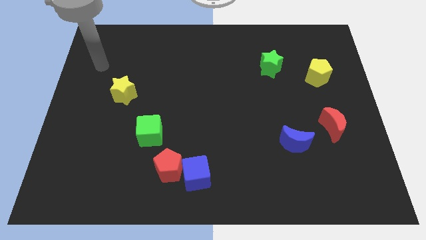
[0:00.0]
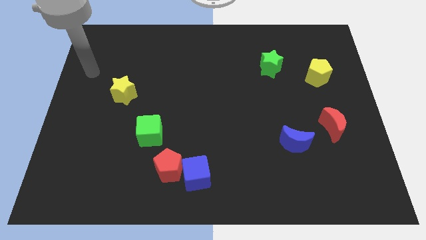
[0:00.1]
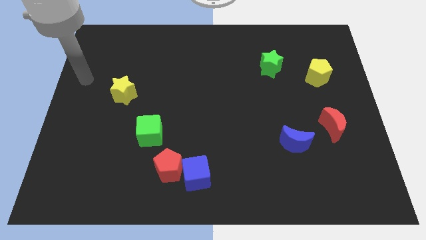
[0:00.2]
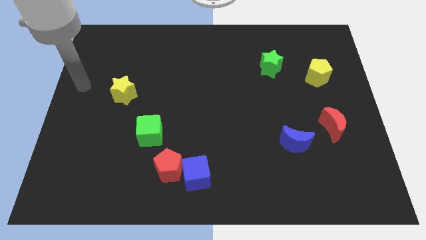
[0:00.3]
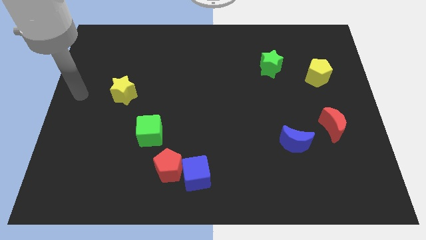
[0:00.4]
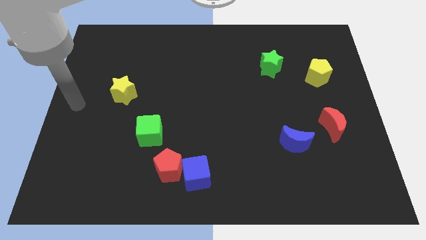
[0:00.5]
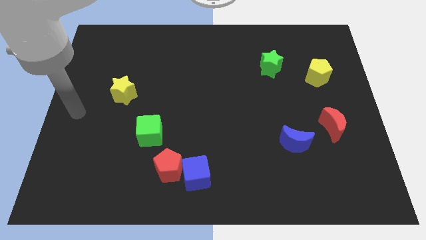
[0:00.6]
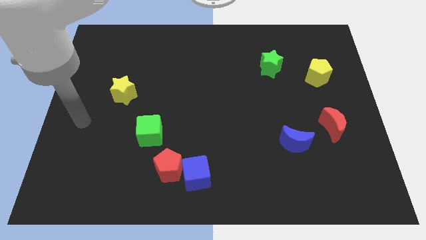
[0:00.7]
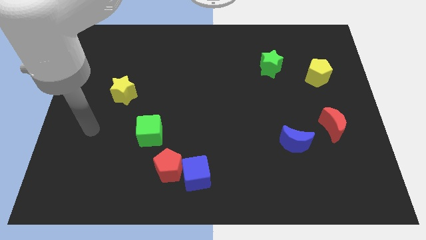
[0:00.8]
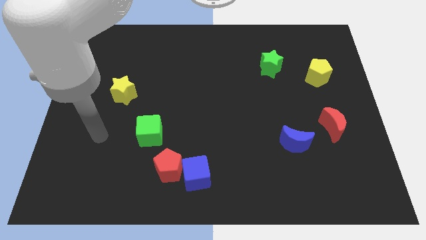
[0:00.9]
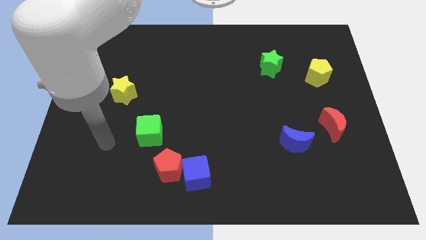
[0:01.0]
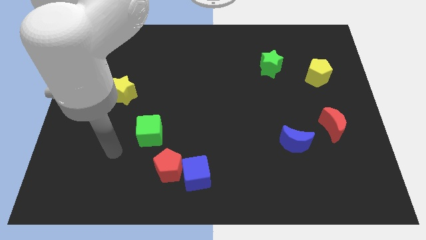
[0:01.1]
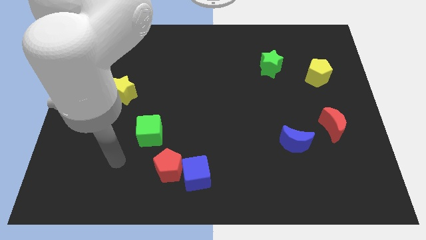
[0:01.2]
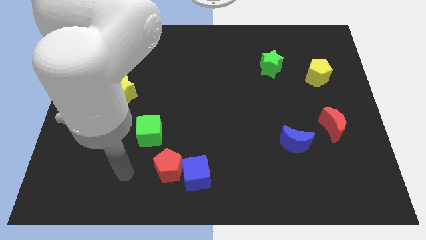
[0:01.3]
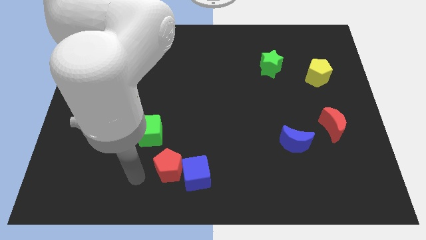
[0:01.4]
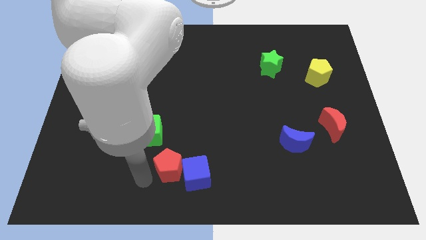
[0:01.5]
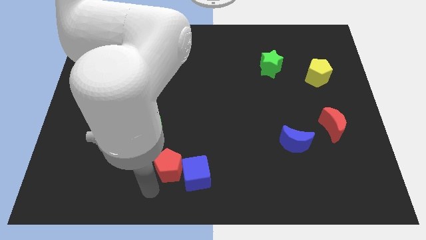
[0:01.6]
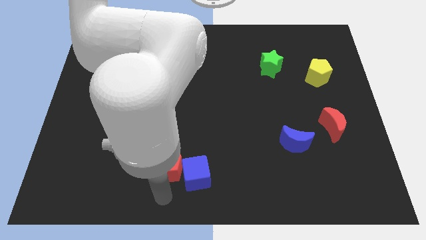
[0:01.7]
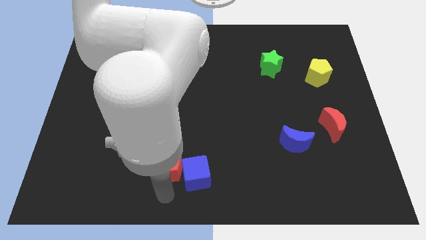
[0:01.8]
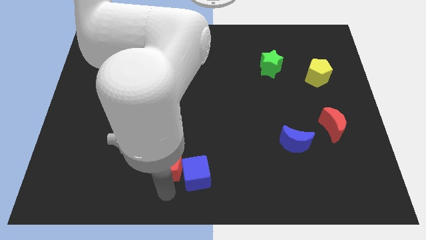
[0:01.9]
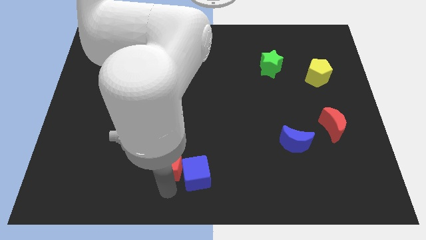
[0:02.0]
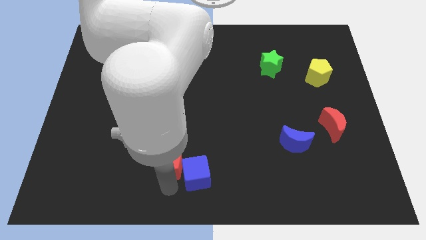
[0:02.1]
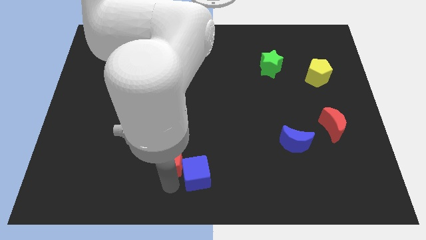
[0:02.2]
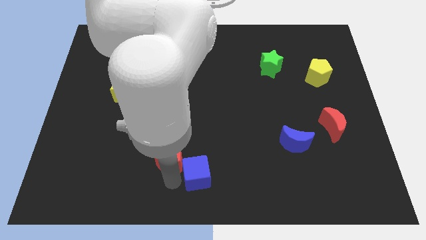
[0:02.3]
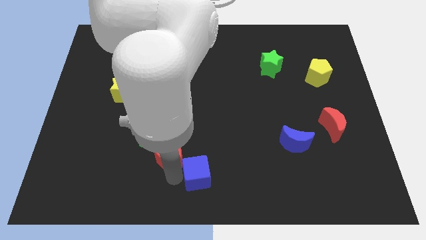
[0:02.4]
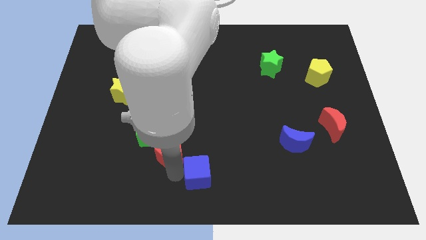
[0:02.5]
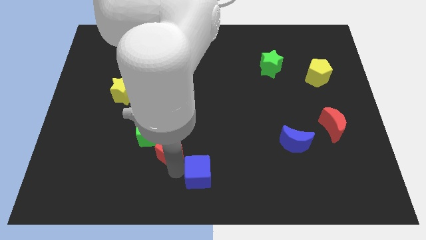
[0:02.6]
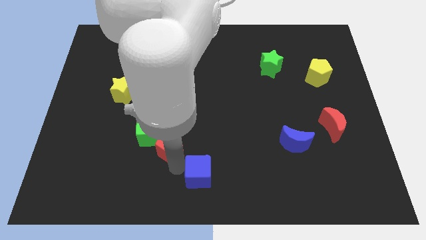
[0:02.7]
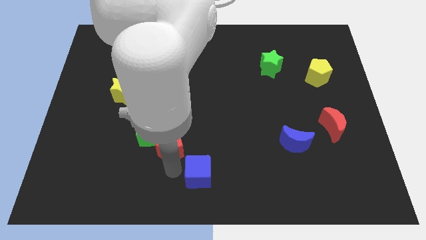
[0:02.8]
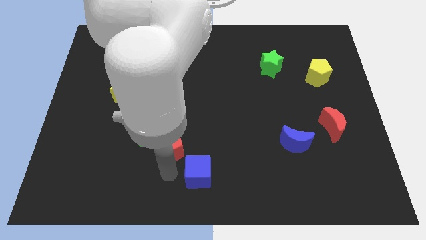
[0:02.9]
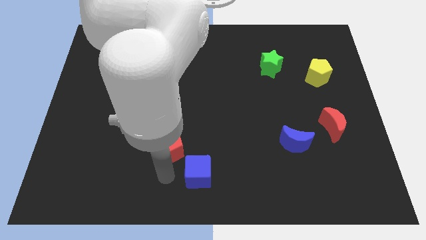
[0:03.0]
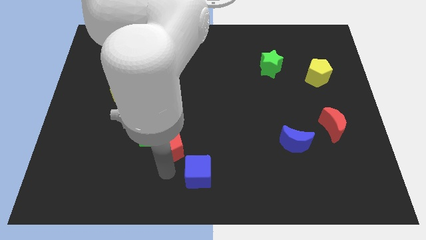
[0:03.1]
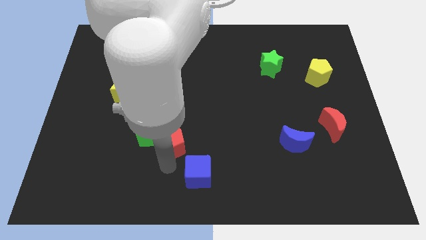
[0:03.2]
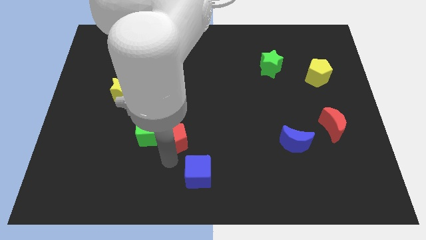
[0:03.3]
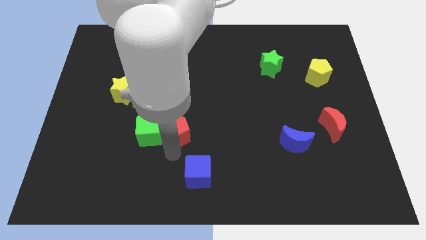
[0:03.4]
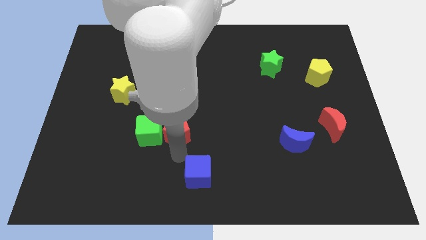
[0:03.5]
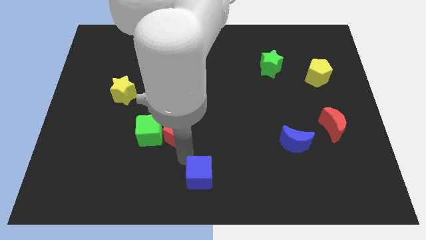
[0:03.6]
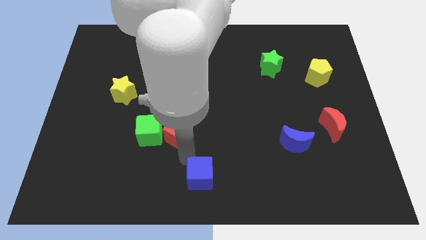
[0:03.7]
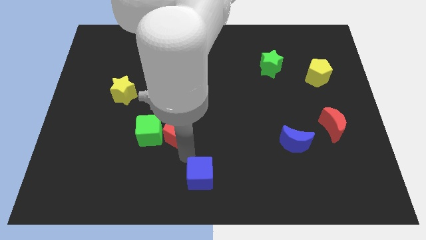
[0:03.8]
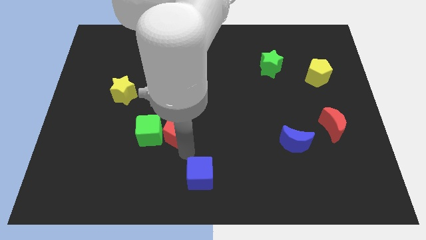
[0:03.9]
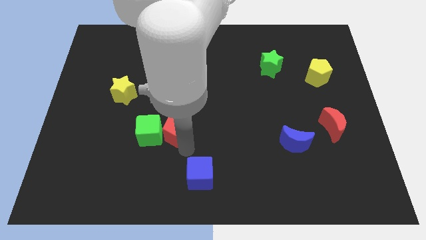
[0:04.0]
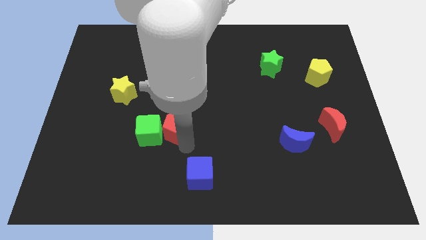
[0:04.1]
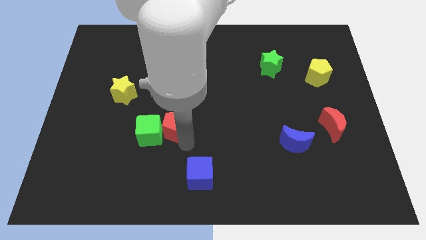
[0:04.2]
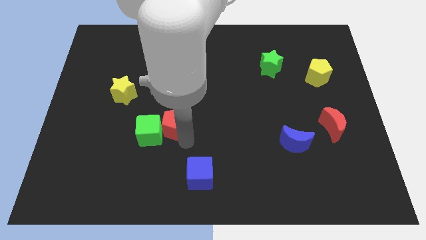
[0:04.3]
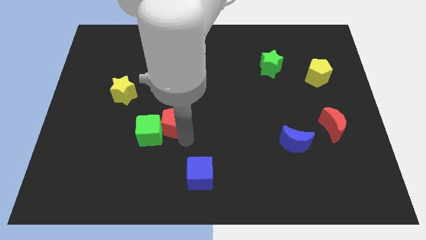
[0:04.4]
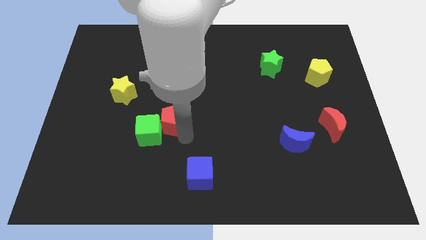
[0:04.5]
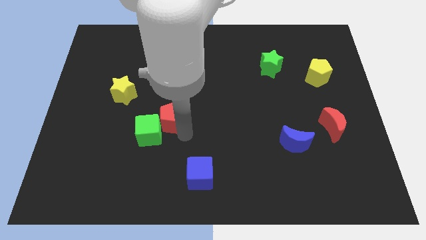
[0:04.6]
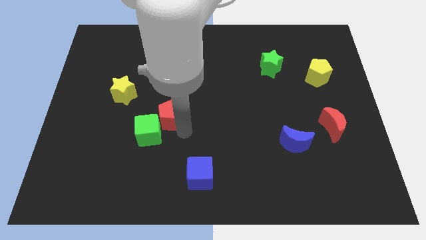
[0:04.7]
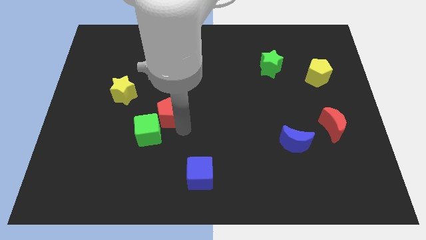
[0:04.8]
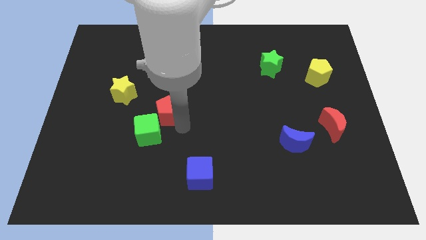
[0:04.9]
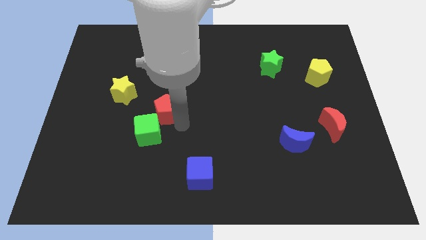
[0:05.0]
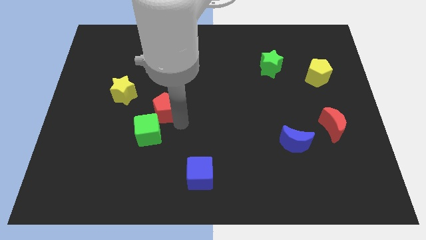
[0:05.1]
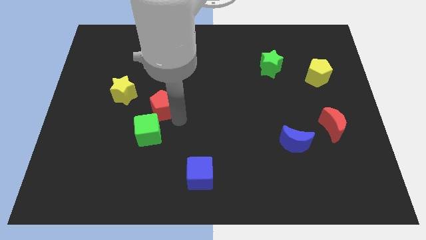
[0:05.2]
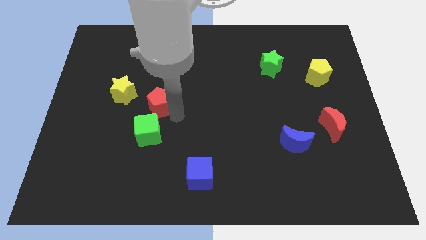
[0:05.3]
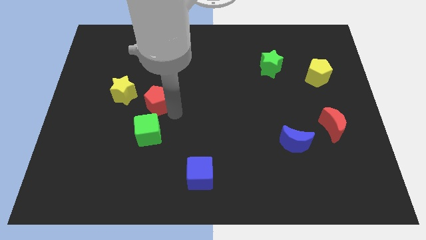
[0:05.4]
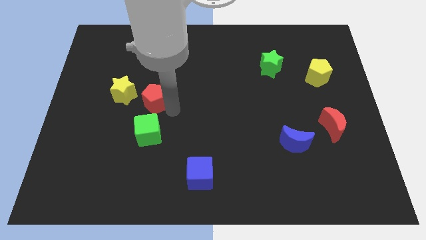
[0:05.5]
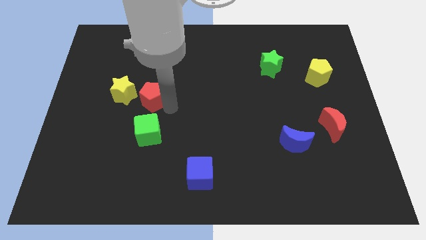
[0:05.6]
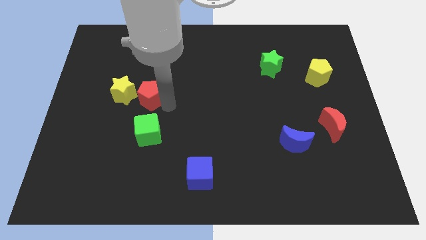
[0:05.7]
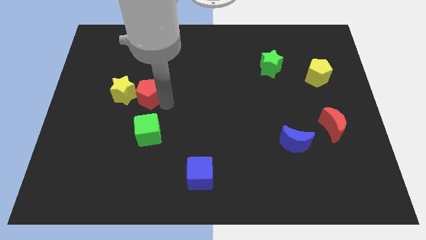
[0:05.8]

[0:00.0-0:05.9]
move the red pentagon next to the yellow star

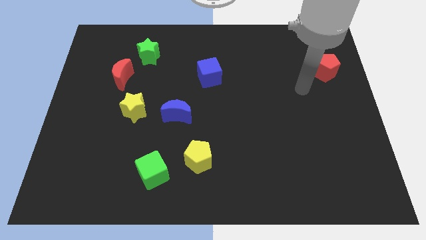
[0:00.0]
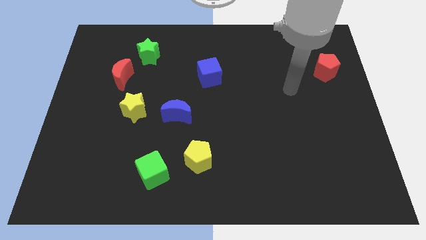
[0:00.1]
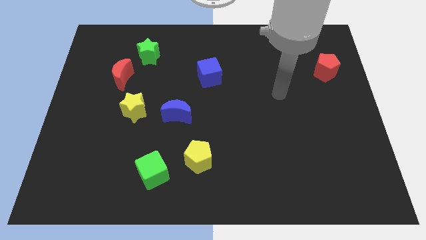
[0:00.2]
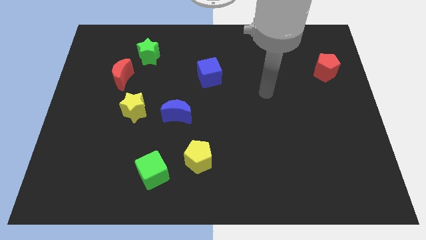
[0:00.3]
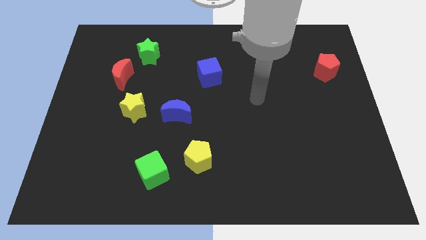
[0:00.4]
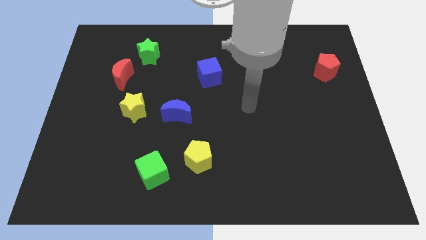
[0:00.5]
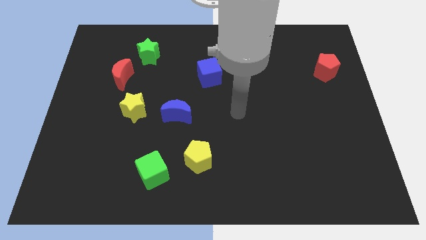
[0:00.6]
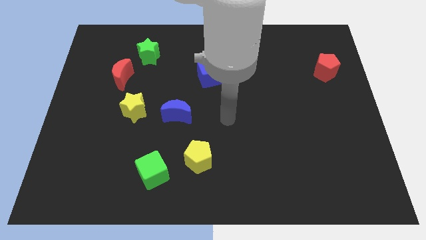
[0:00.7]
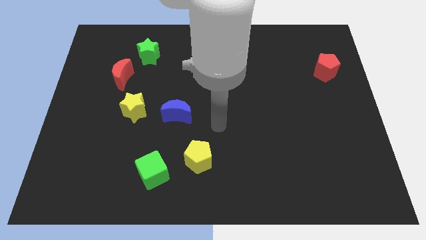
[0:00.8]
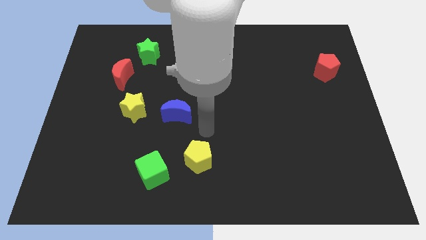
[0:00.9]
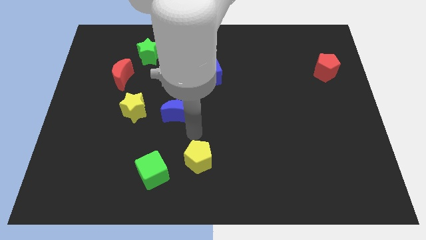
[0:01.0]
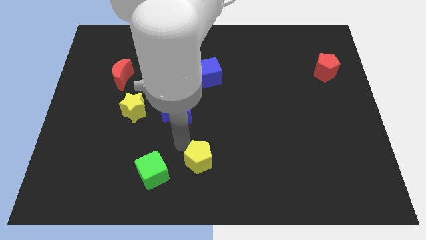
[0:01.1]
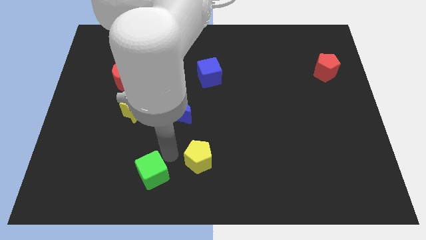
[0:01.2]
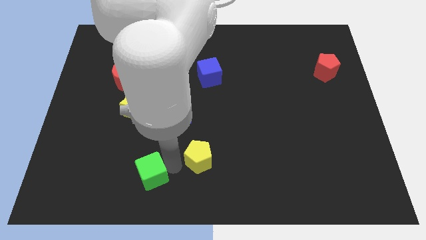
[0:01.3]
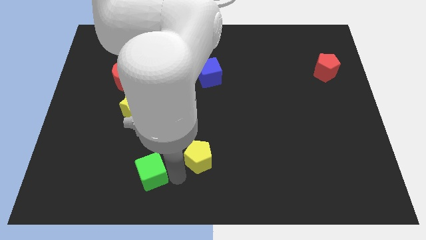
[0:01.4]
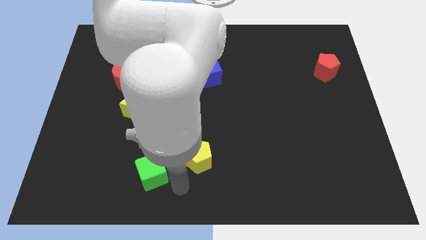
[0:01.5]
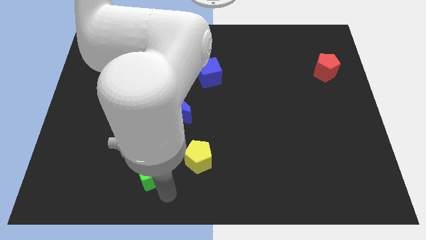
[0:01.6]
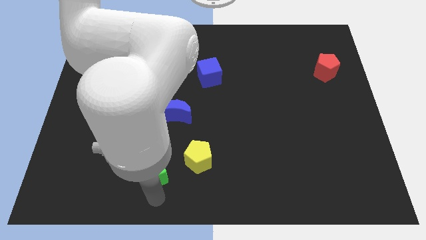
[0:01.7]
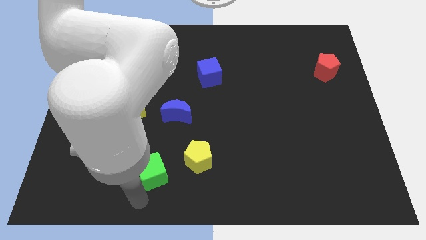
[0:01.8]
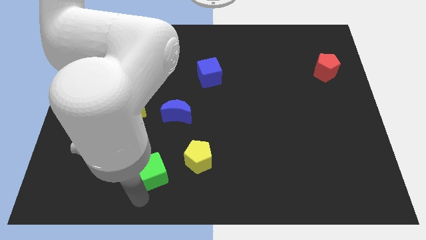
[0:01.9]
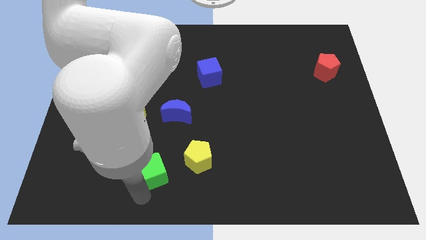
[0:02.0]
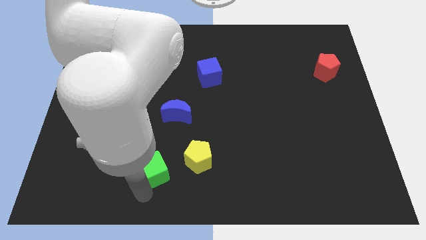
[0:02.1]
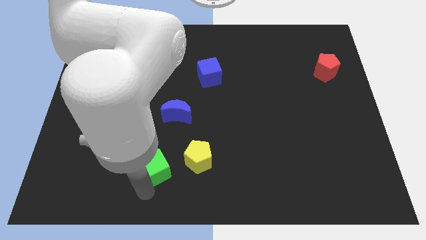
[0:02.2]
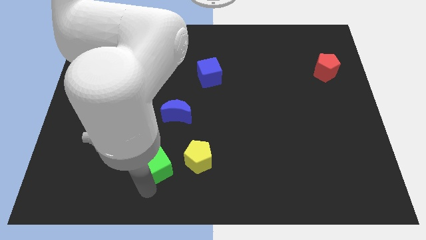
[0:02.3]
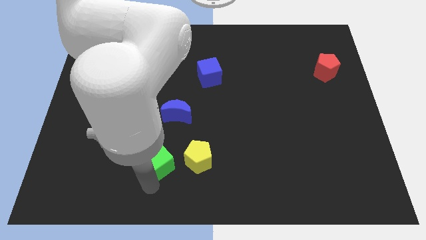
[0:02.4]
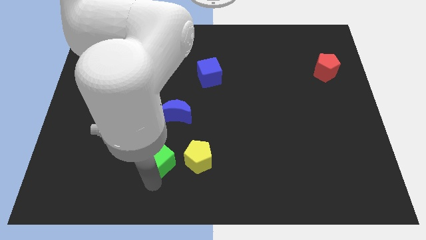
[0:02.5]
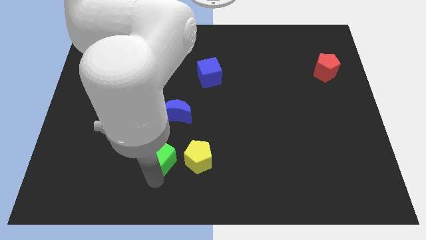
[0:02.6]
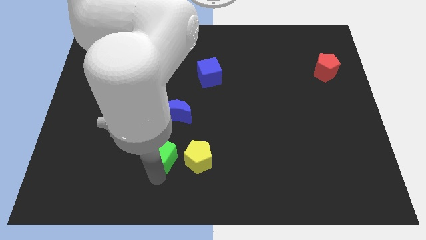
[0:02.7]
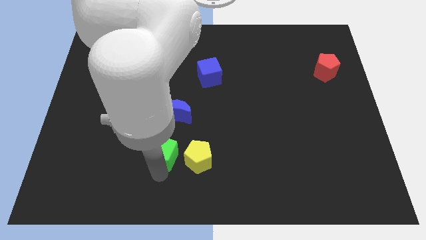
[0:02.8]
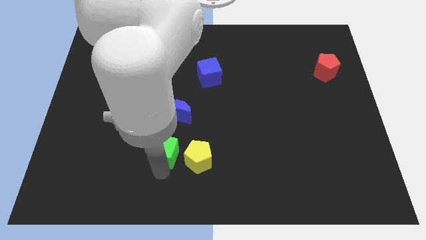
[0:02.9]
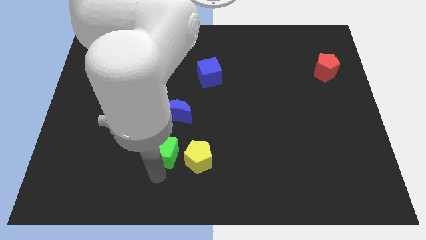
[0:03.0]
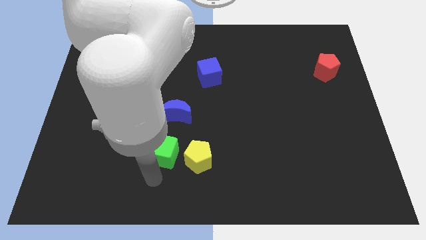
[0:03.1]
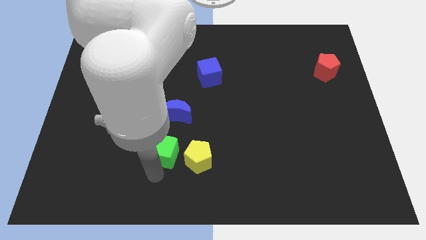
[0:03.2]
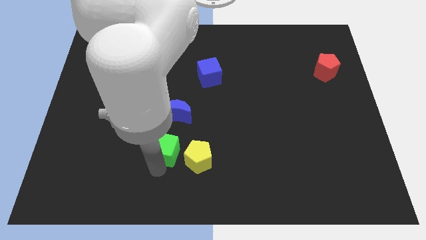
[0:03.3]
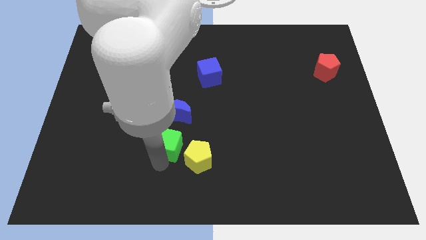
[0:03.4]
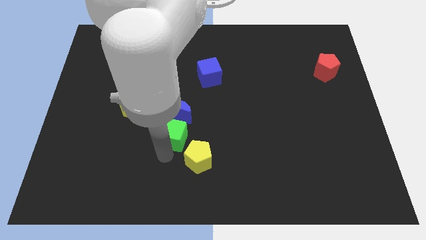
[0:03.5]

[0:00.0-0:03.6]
slide the green cube towards the blue moon
